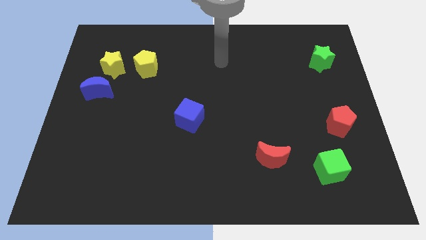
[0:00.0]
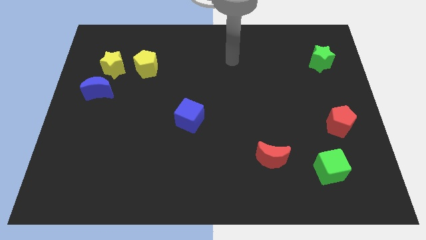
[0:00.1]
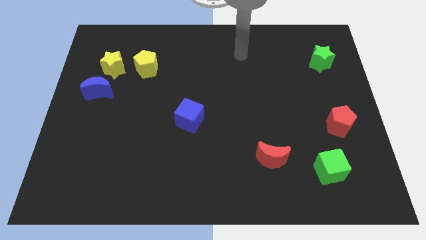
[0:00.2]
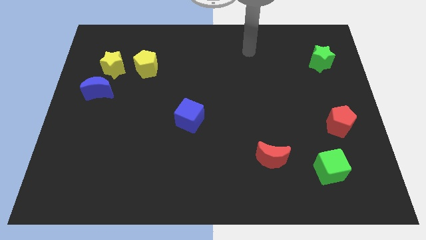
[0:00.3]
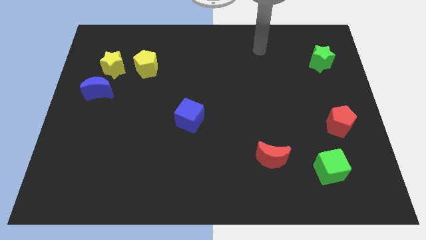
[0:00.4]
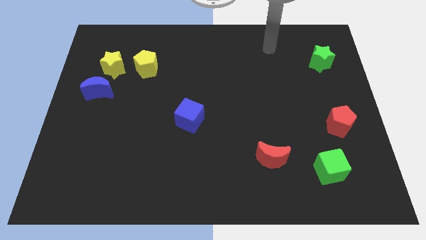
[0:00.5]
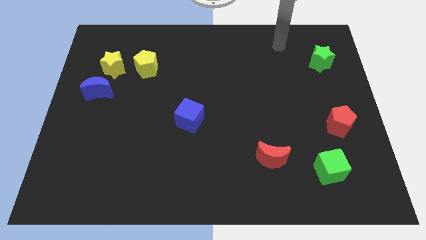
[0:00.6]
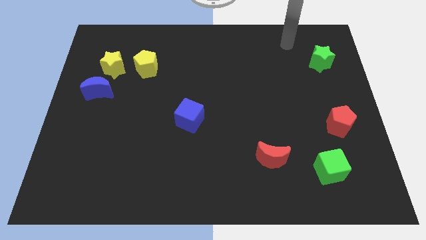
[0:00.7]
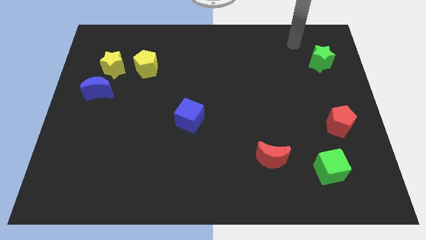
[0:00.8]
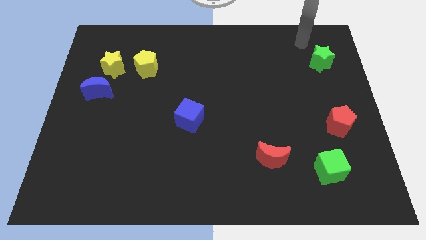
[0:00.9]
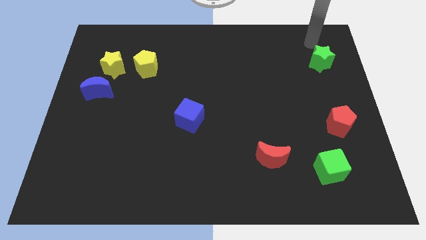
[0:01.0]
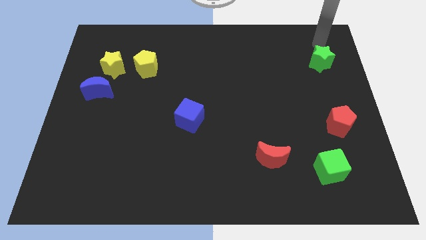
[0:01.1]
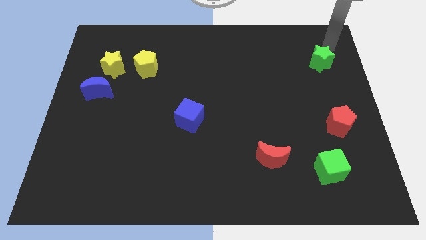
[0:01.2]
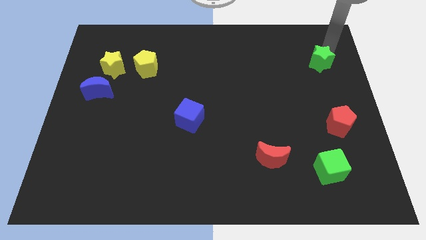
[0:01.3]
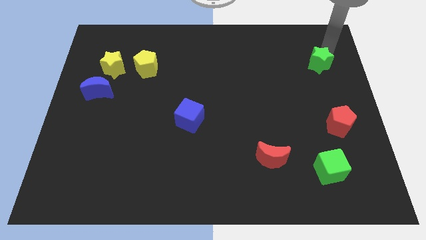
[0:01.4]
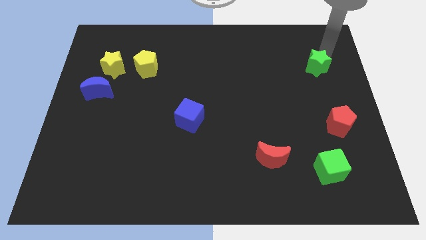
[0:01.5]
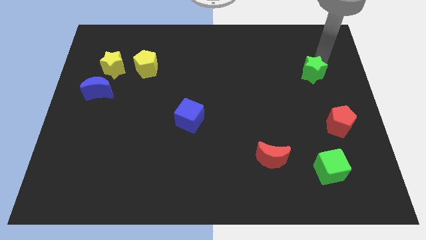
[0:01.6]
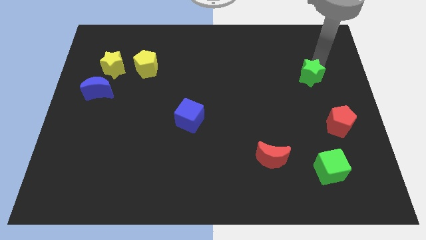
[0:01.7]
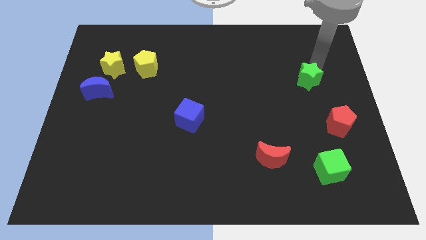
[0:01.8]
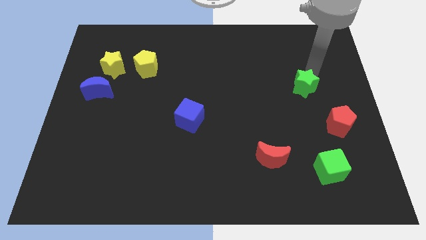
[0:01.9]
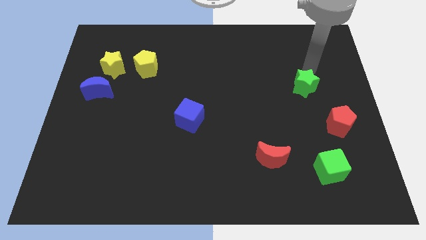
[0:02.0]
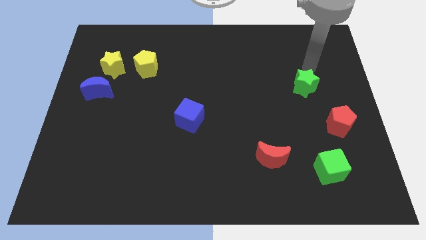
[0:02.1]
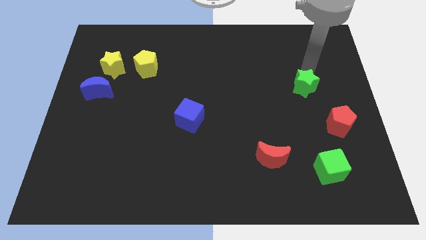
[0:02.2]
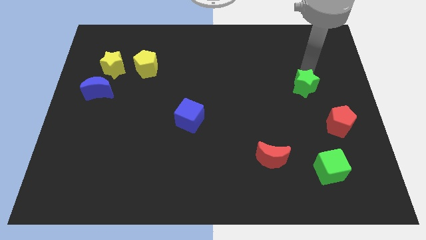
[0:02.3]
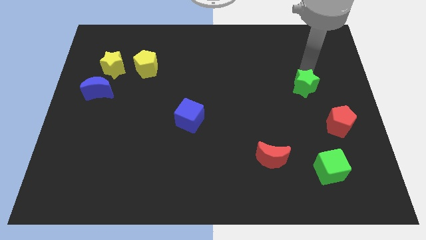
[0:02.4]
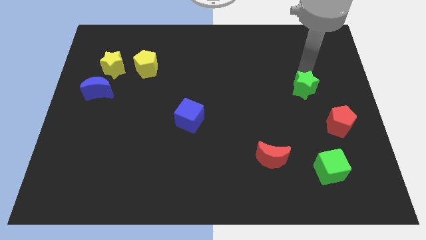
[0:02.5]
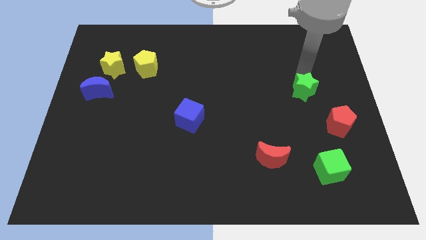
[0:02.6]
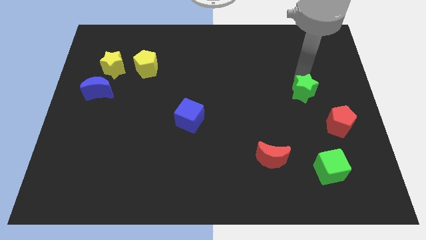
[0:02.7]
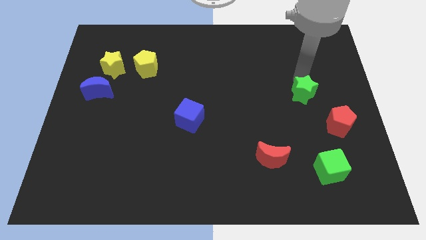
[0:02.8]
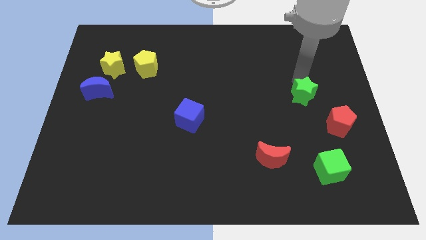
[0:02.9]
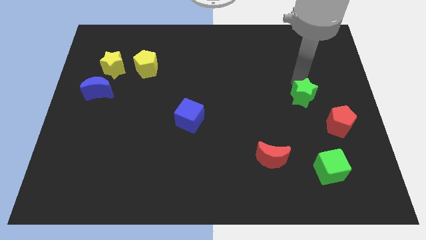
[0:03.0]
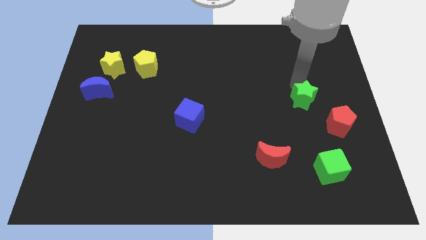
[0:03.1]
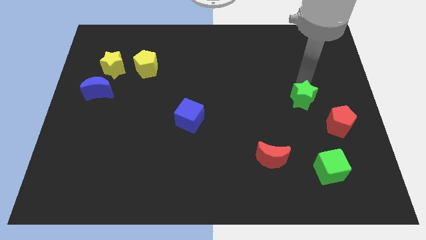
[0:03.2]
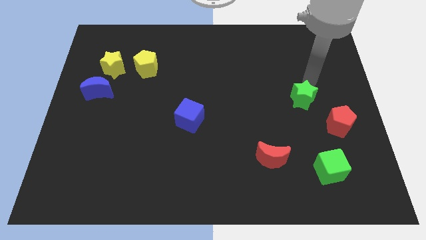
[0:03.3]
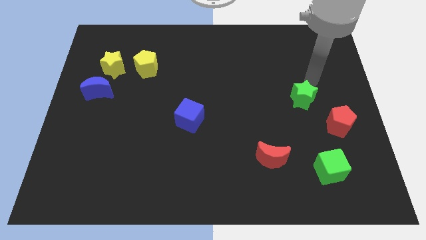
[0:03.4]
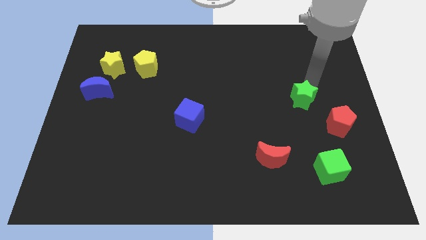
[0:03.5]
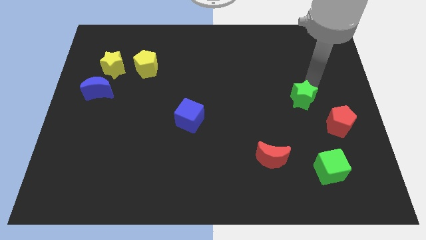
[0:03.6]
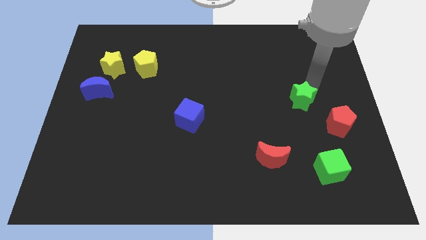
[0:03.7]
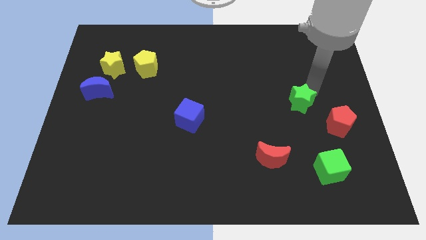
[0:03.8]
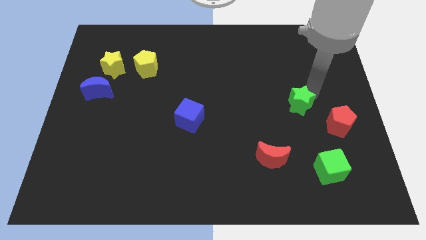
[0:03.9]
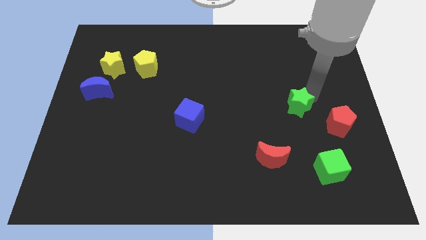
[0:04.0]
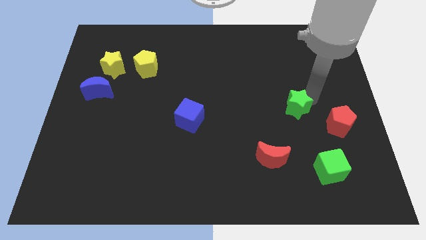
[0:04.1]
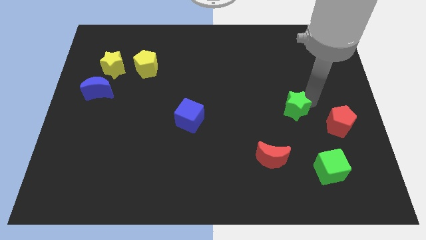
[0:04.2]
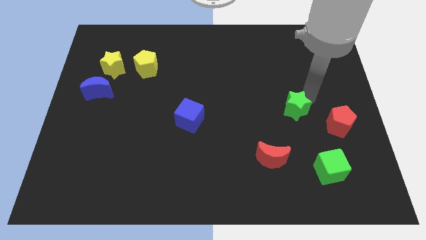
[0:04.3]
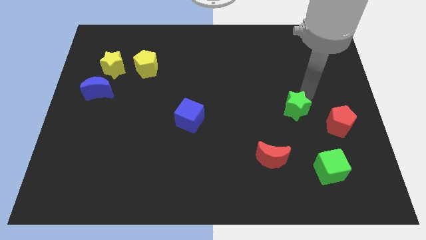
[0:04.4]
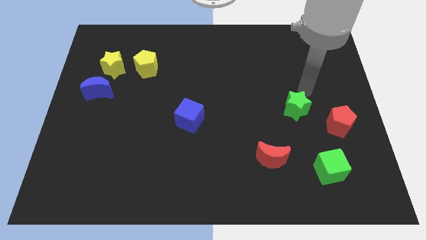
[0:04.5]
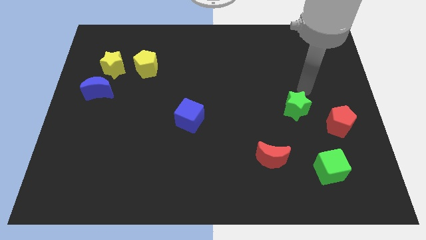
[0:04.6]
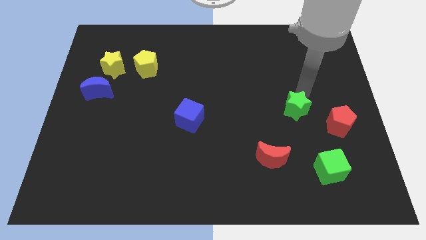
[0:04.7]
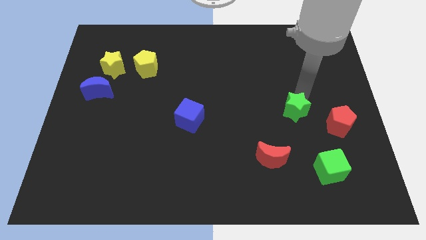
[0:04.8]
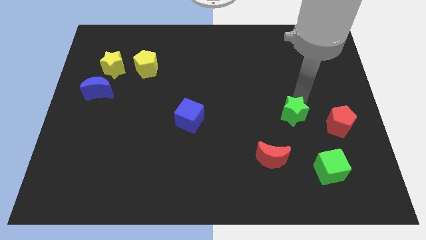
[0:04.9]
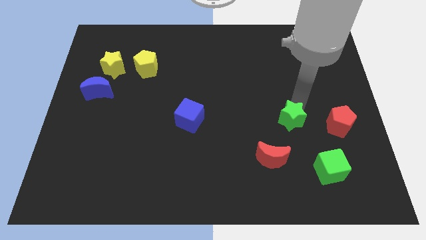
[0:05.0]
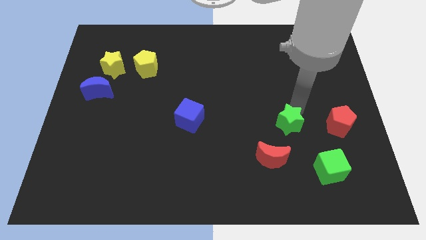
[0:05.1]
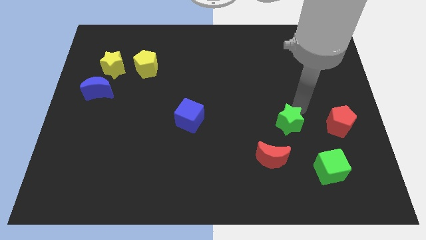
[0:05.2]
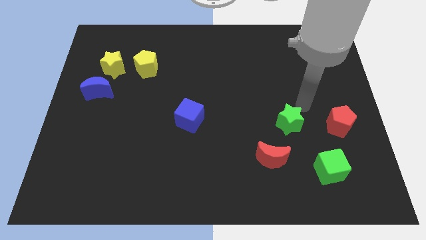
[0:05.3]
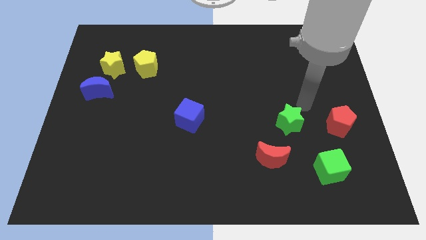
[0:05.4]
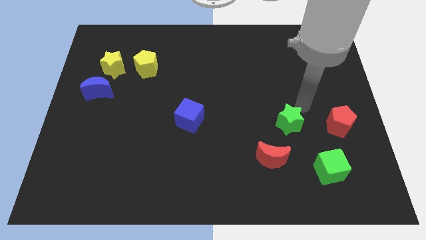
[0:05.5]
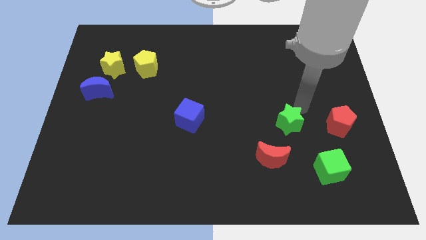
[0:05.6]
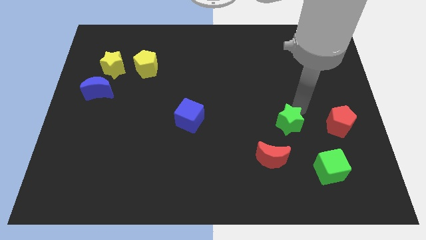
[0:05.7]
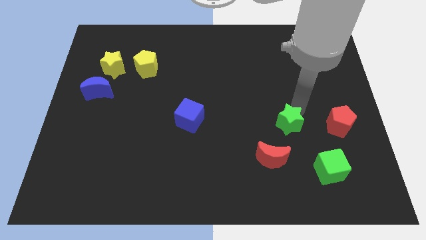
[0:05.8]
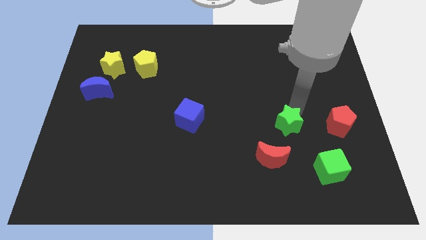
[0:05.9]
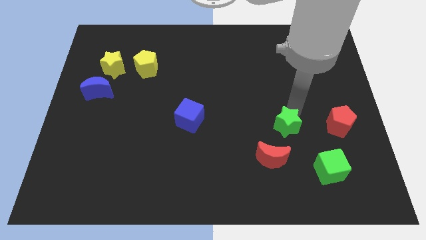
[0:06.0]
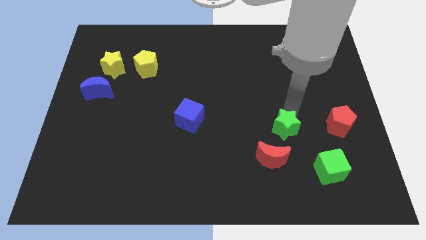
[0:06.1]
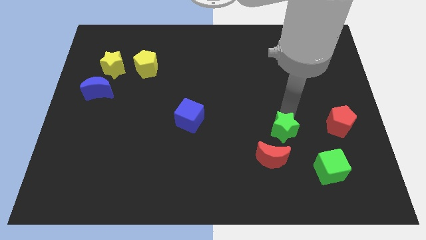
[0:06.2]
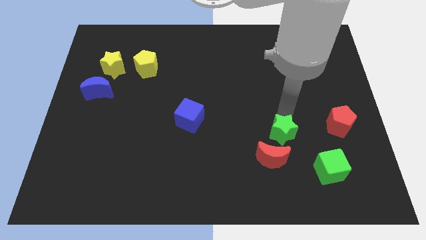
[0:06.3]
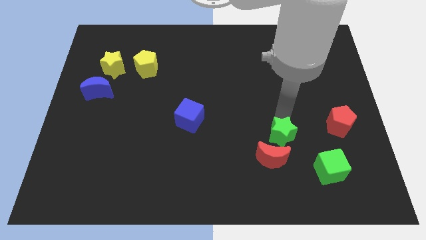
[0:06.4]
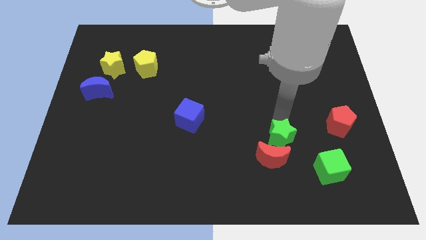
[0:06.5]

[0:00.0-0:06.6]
move the green star towards the red moon

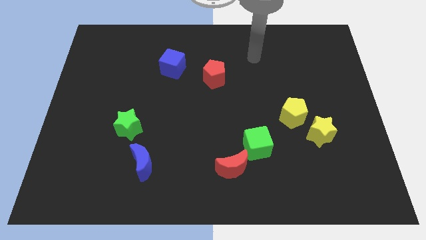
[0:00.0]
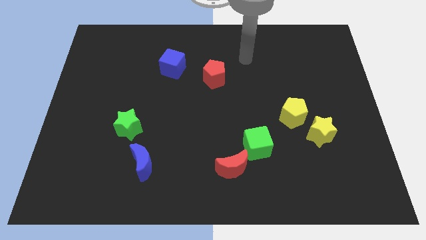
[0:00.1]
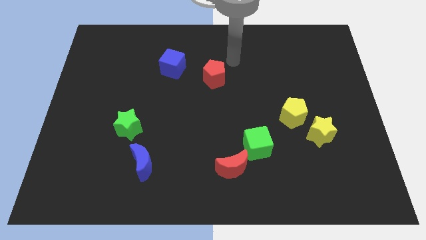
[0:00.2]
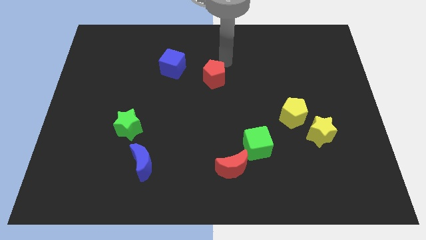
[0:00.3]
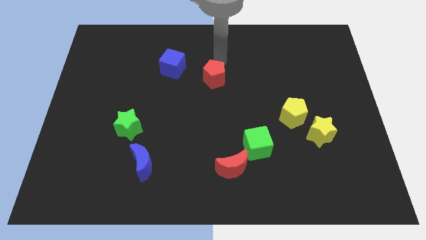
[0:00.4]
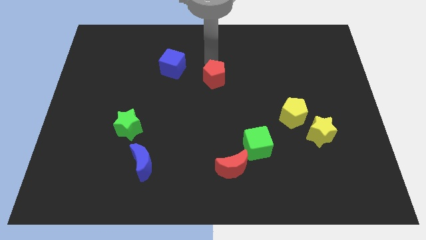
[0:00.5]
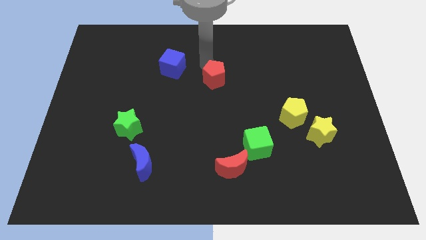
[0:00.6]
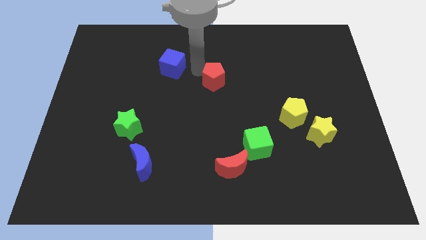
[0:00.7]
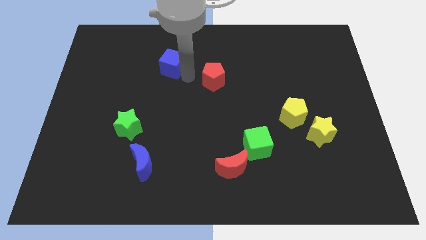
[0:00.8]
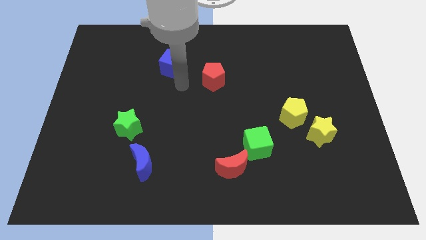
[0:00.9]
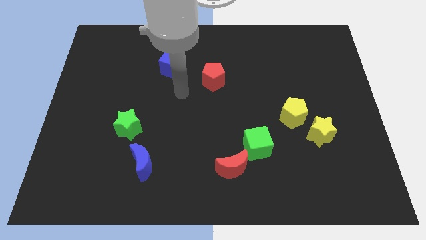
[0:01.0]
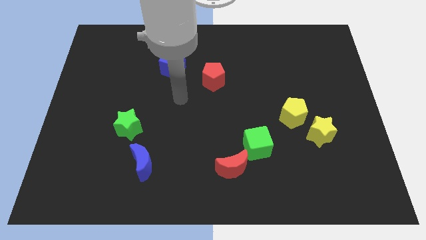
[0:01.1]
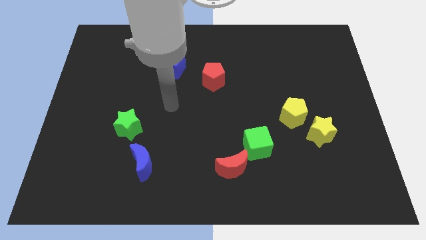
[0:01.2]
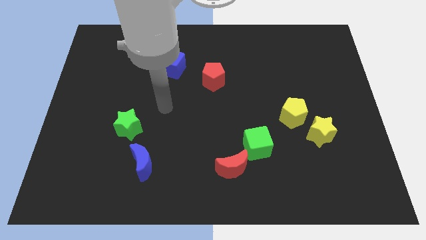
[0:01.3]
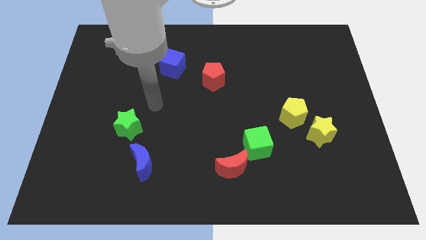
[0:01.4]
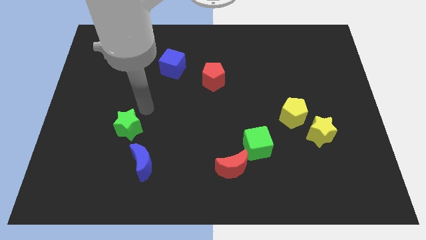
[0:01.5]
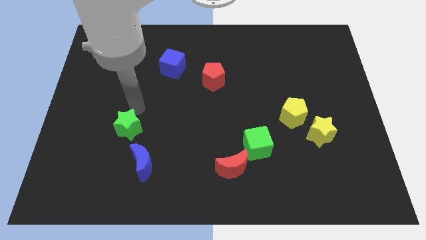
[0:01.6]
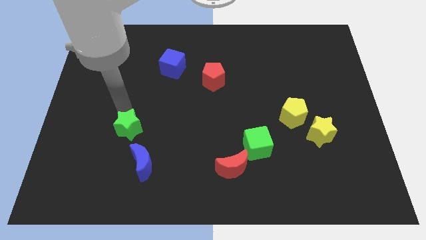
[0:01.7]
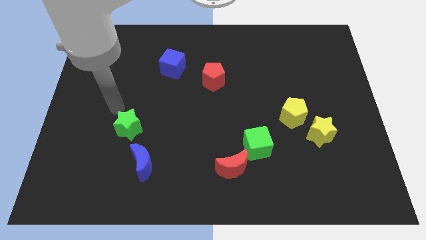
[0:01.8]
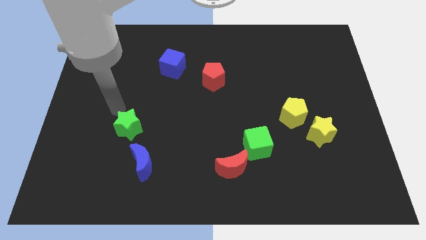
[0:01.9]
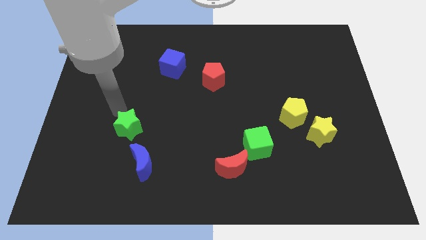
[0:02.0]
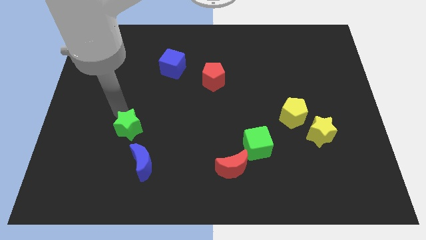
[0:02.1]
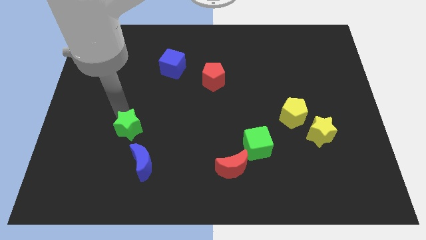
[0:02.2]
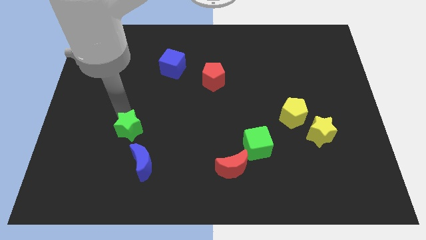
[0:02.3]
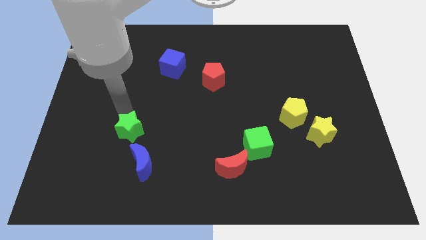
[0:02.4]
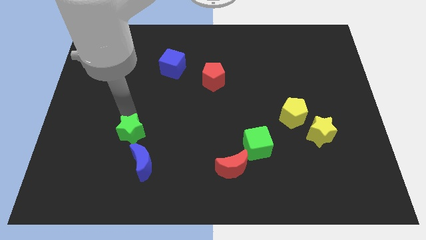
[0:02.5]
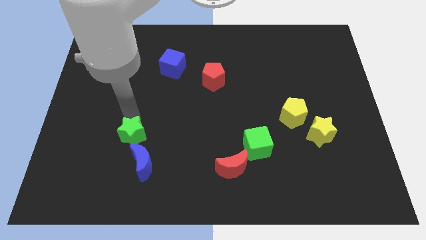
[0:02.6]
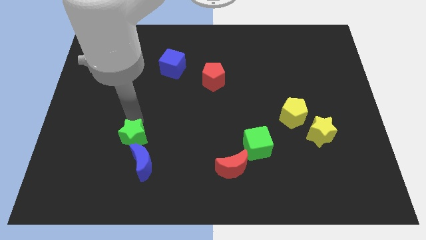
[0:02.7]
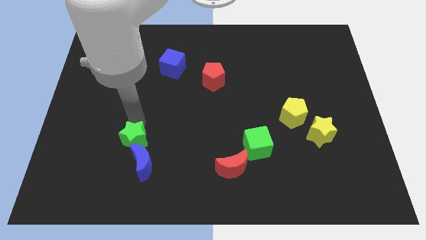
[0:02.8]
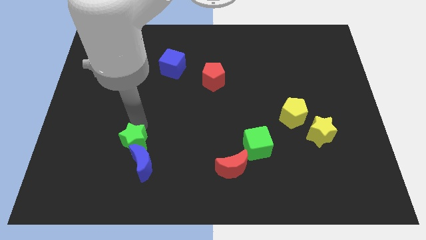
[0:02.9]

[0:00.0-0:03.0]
move the green star to the blue moon
